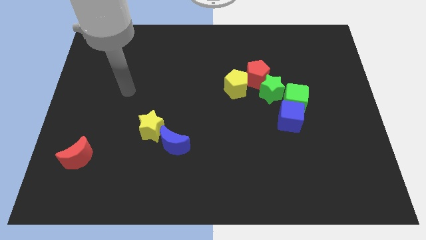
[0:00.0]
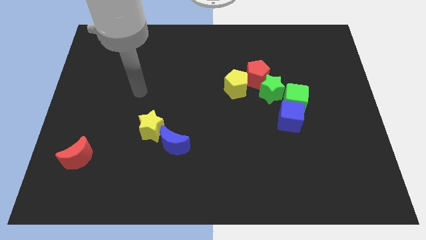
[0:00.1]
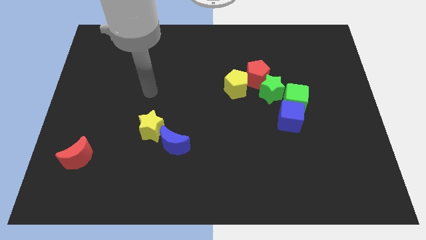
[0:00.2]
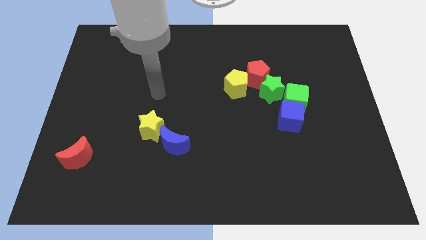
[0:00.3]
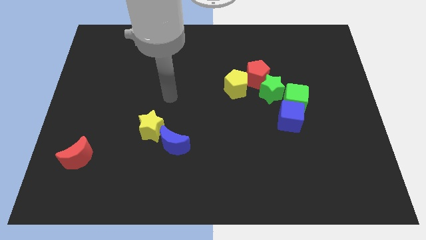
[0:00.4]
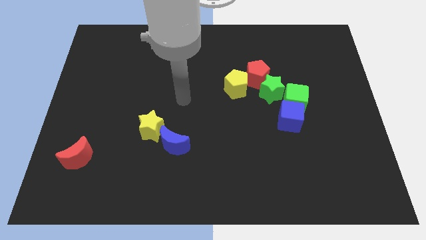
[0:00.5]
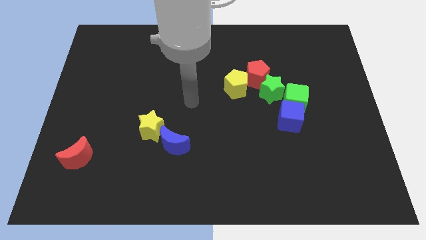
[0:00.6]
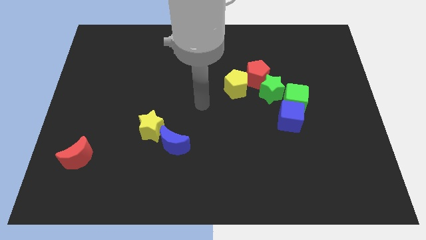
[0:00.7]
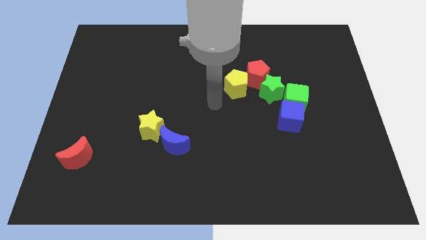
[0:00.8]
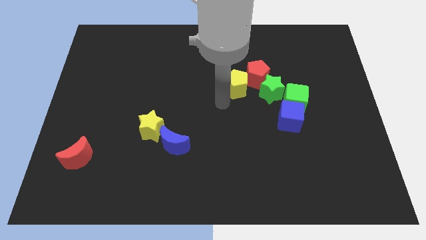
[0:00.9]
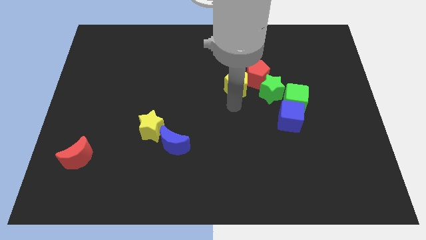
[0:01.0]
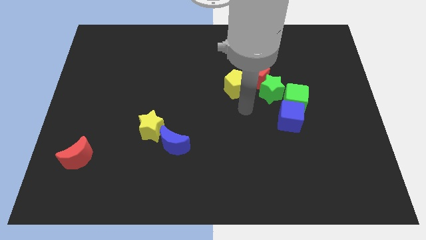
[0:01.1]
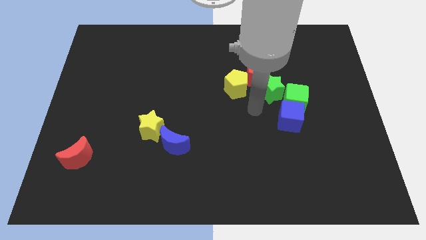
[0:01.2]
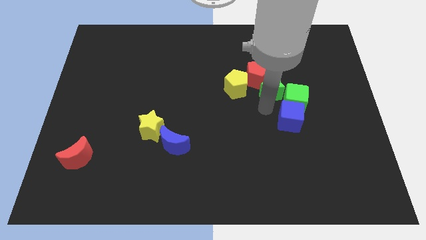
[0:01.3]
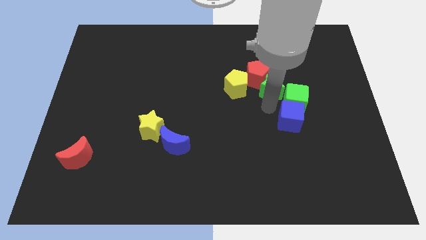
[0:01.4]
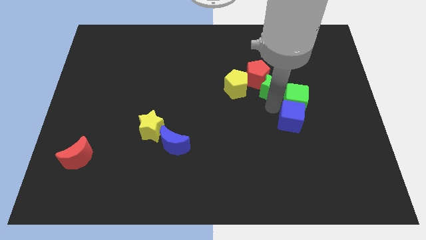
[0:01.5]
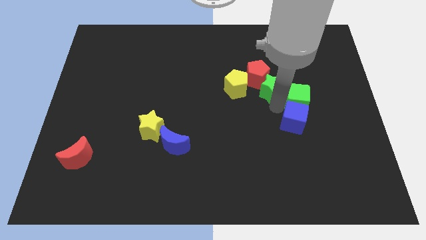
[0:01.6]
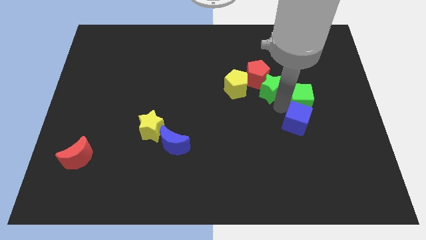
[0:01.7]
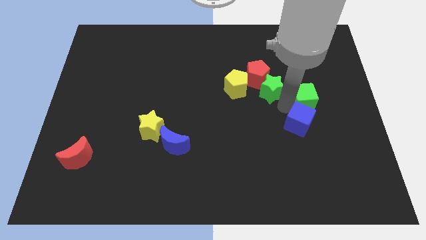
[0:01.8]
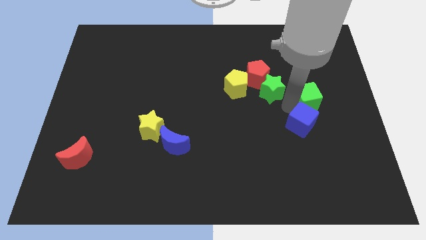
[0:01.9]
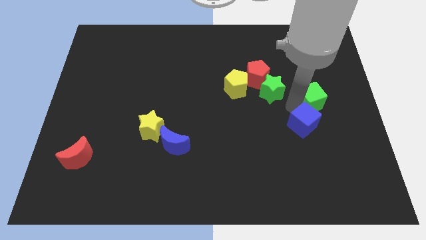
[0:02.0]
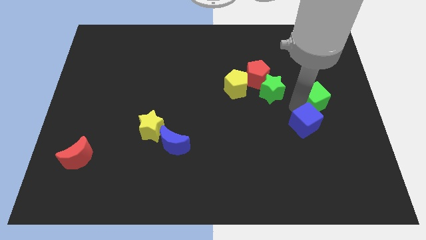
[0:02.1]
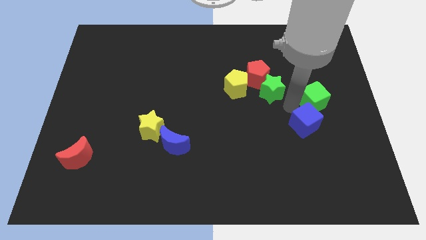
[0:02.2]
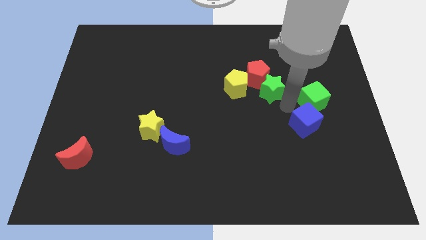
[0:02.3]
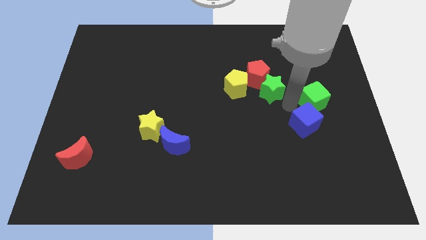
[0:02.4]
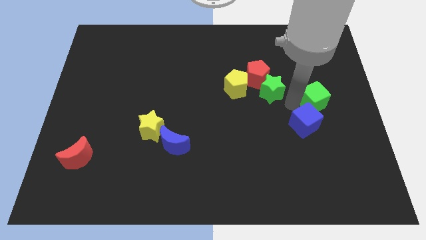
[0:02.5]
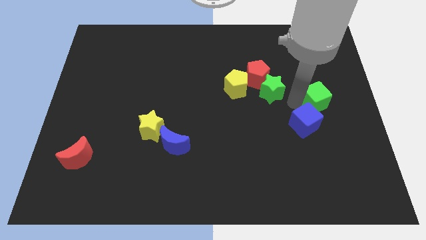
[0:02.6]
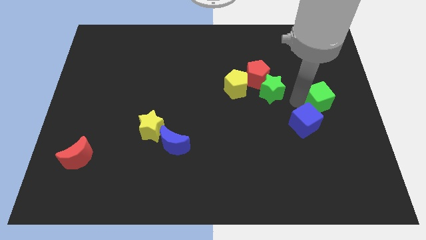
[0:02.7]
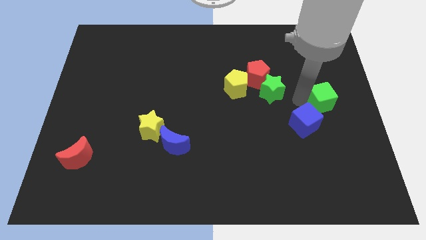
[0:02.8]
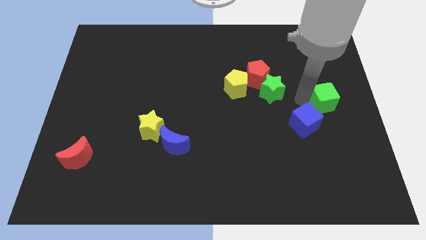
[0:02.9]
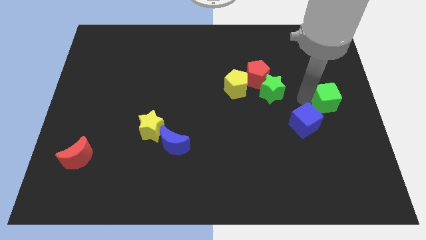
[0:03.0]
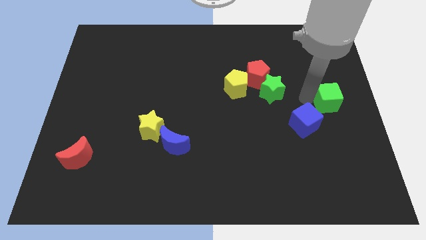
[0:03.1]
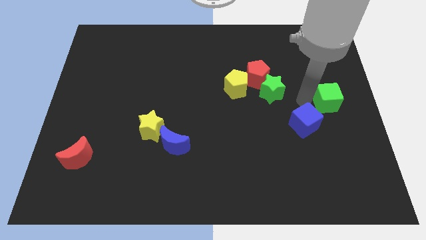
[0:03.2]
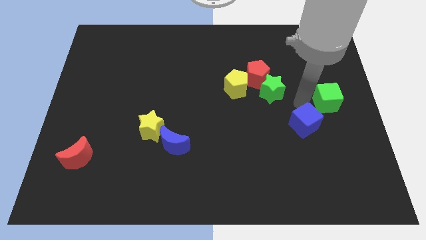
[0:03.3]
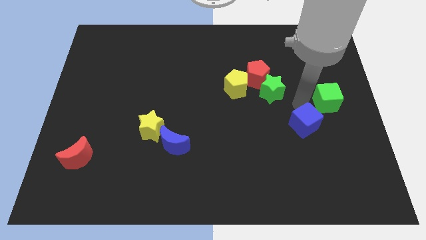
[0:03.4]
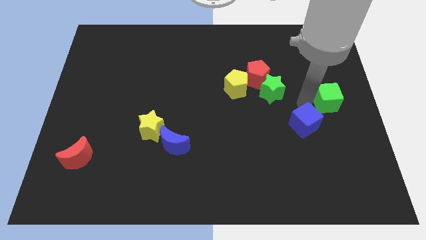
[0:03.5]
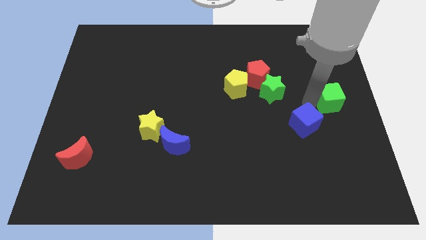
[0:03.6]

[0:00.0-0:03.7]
separate the green cube from the blue cube and green star

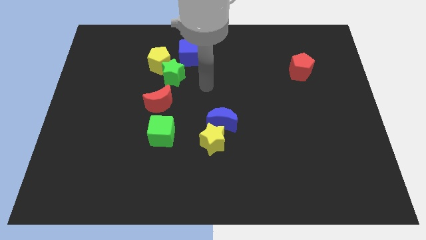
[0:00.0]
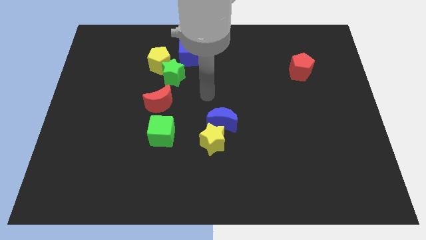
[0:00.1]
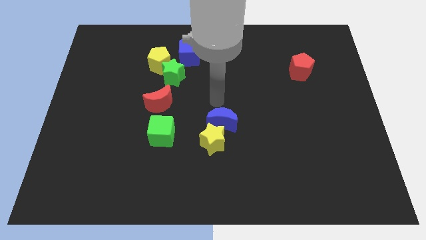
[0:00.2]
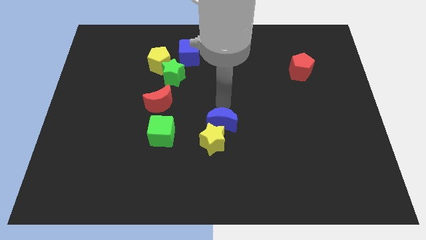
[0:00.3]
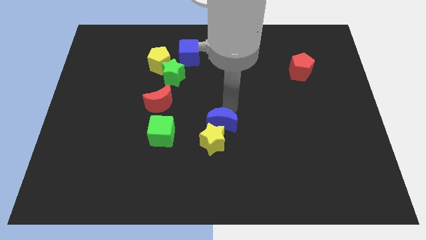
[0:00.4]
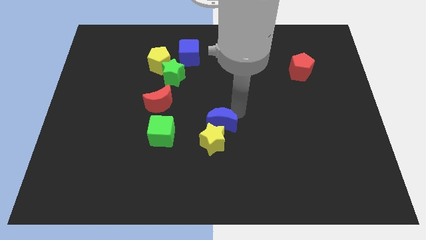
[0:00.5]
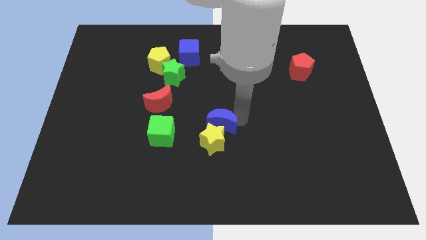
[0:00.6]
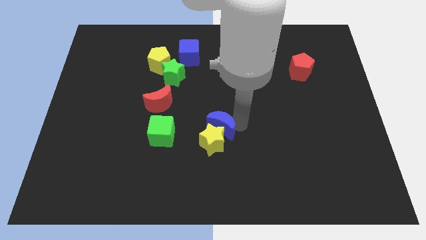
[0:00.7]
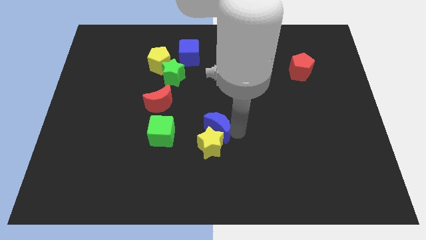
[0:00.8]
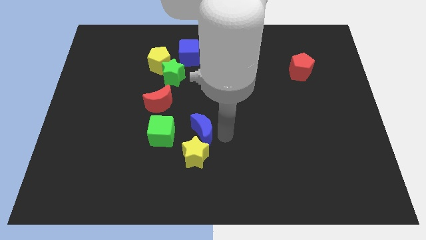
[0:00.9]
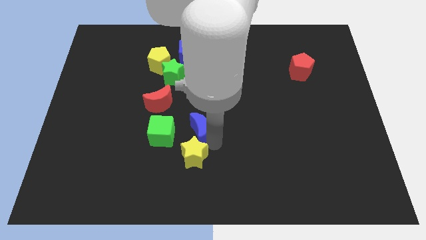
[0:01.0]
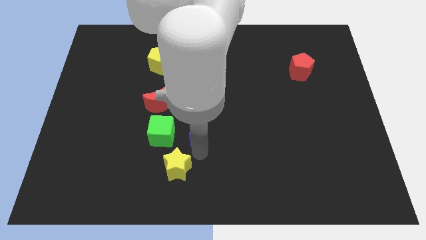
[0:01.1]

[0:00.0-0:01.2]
move the blue moon away from the yellow star

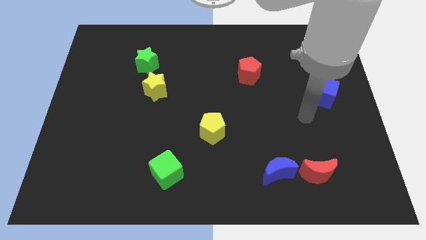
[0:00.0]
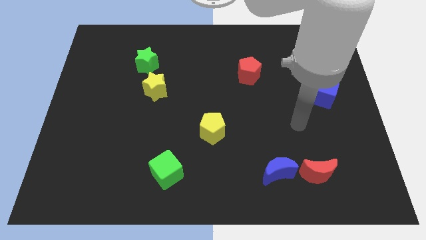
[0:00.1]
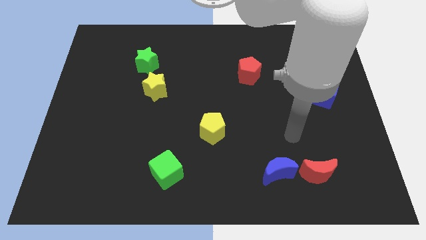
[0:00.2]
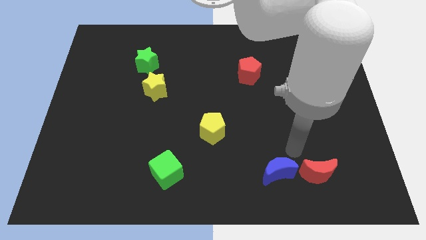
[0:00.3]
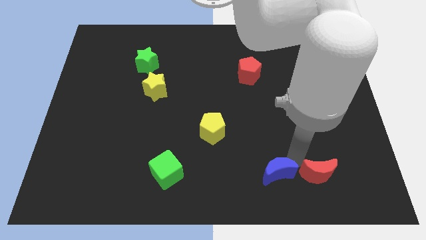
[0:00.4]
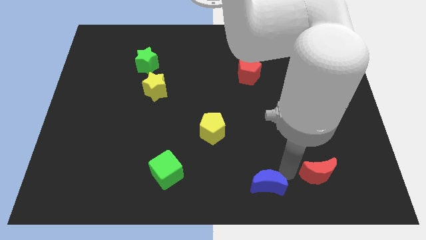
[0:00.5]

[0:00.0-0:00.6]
separate the red moon from the blue moon

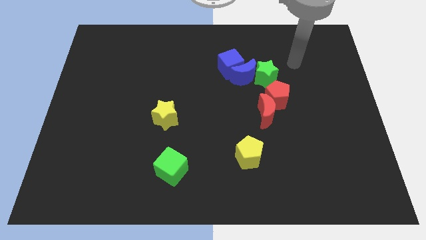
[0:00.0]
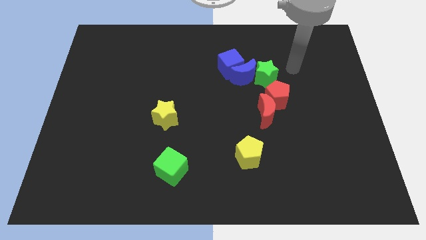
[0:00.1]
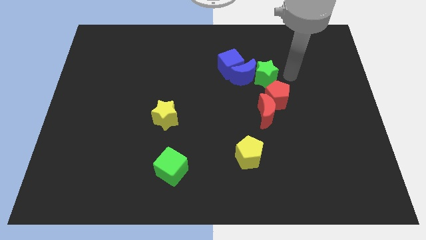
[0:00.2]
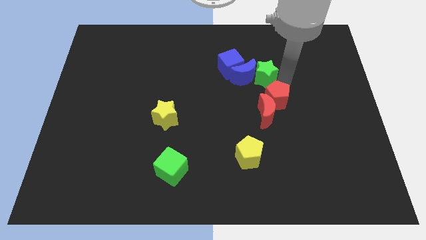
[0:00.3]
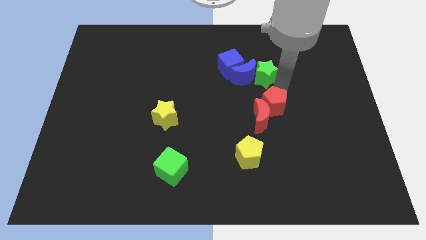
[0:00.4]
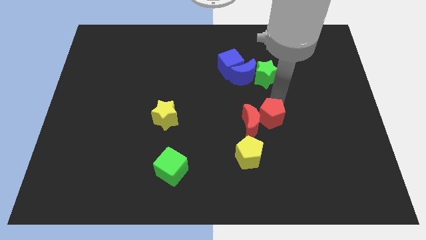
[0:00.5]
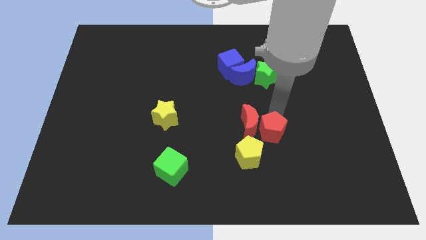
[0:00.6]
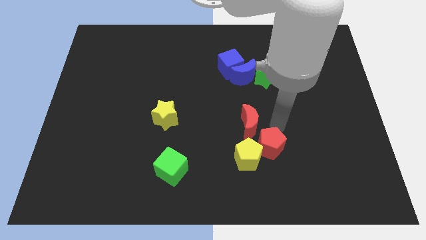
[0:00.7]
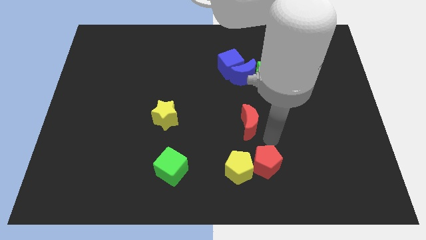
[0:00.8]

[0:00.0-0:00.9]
separate the red moon from the red pentagon

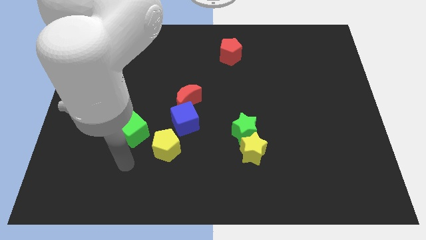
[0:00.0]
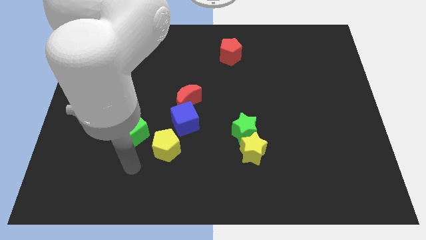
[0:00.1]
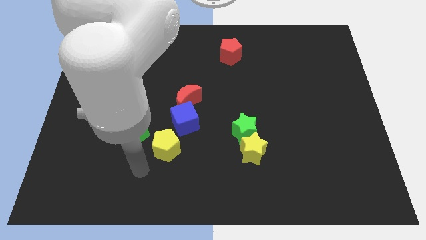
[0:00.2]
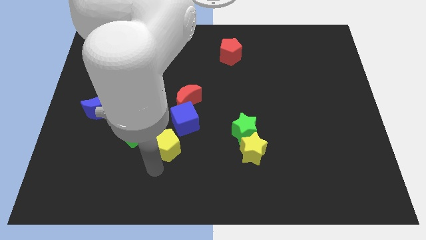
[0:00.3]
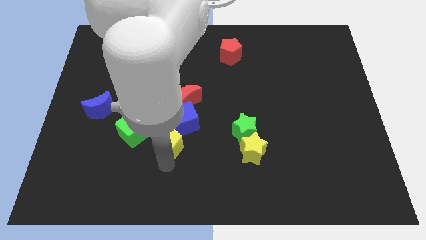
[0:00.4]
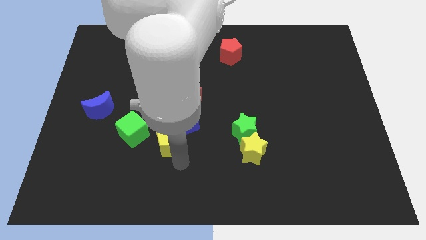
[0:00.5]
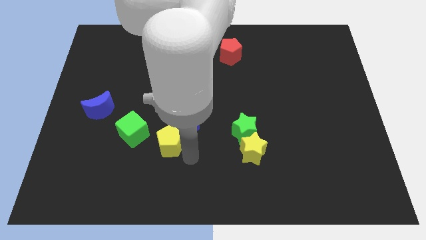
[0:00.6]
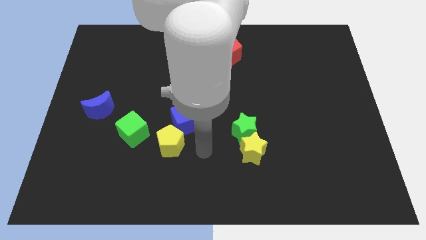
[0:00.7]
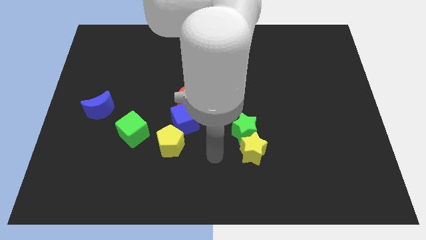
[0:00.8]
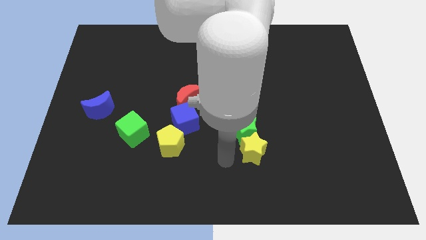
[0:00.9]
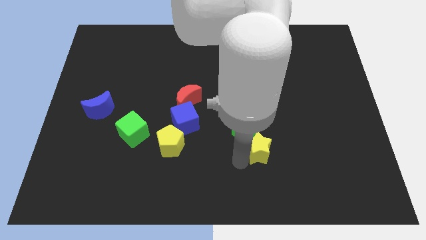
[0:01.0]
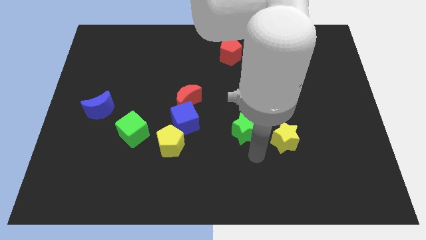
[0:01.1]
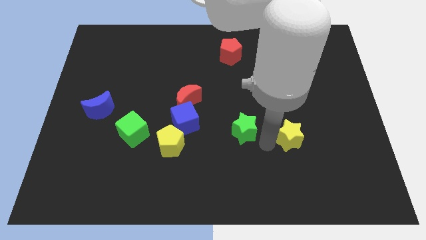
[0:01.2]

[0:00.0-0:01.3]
move the green star away from the yellow star

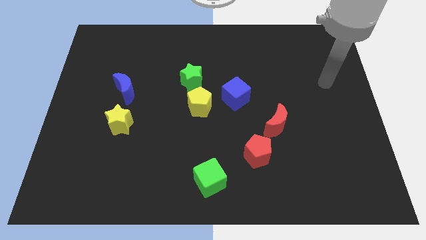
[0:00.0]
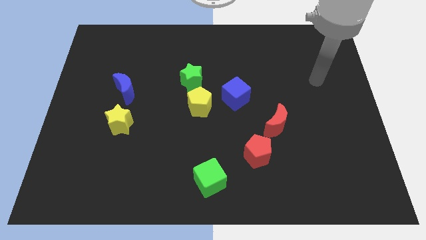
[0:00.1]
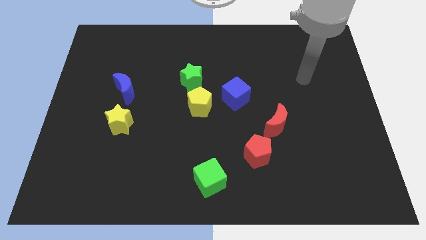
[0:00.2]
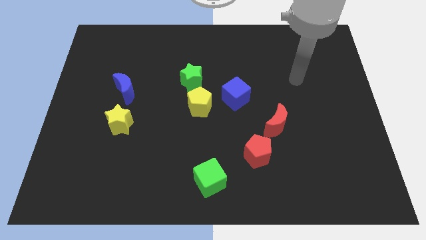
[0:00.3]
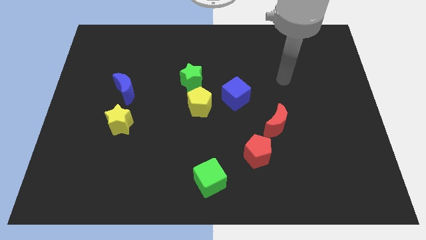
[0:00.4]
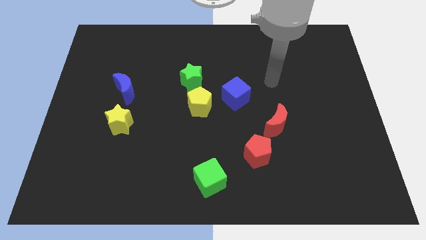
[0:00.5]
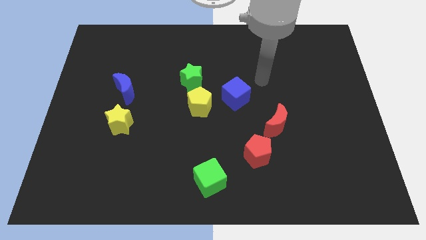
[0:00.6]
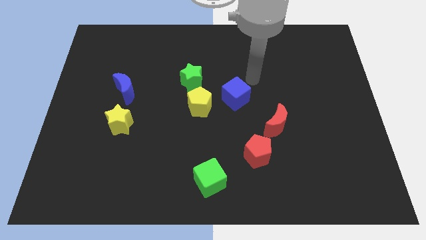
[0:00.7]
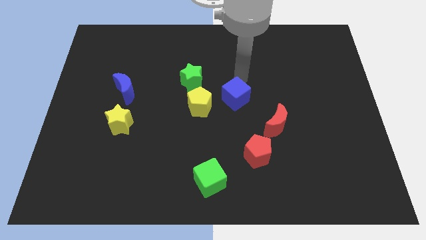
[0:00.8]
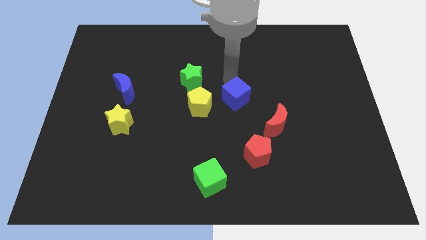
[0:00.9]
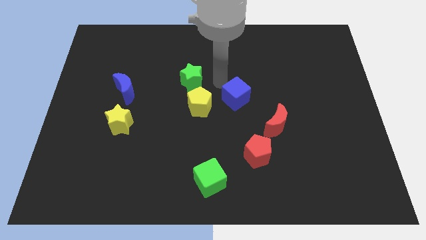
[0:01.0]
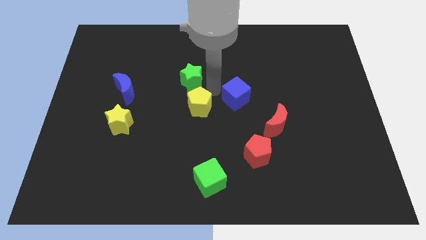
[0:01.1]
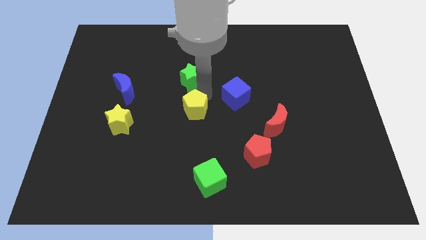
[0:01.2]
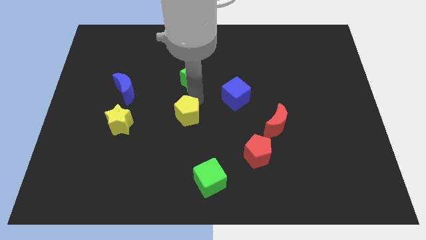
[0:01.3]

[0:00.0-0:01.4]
pull the green star apart from the yellow pentagon

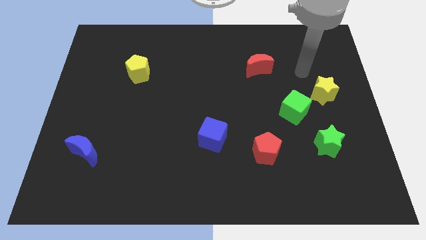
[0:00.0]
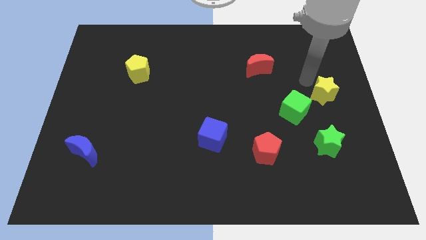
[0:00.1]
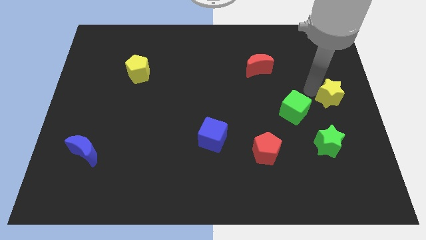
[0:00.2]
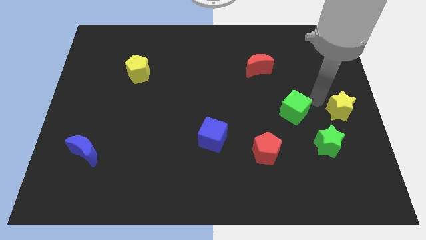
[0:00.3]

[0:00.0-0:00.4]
pull the green cube apart from the yellow star
